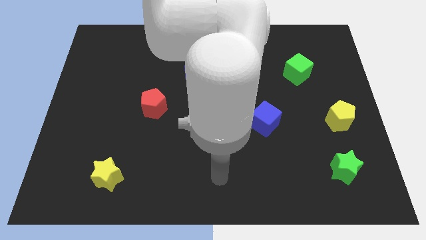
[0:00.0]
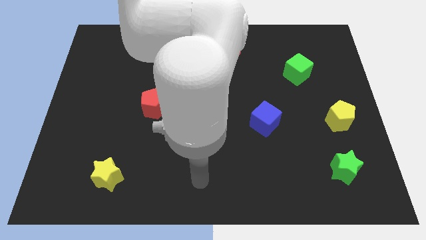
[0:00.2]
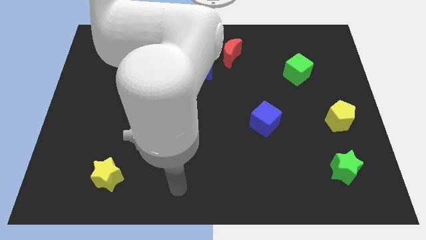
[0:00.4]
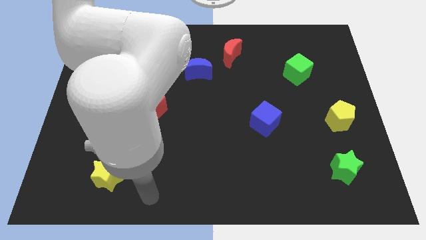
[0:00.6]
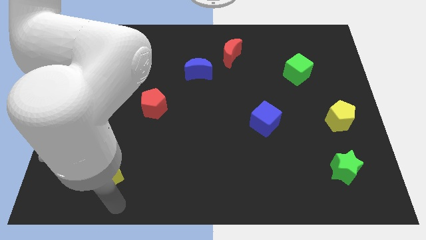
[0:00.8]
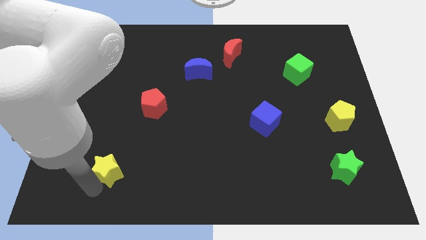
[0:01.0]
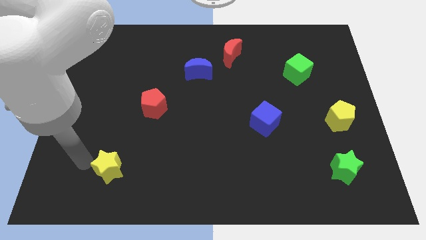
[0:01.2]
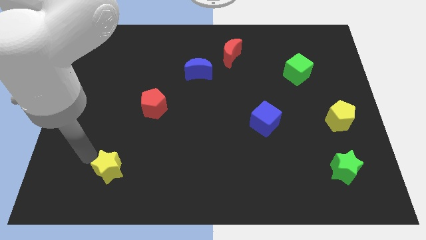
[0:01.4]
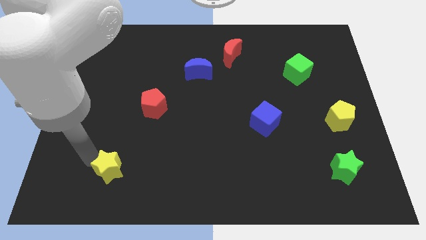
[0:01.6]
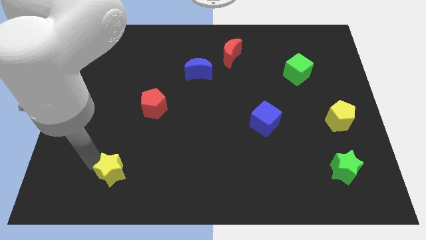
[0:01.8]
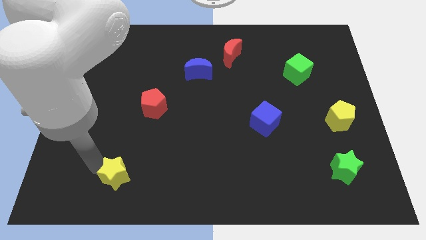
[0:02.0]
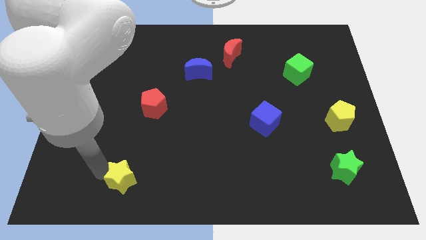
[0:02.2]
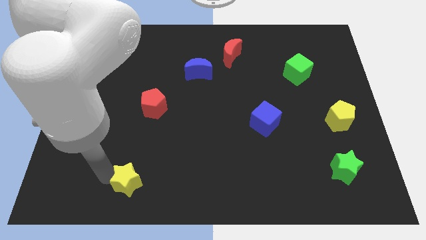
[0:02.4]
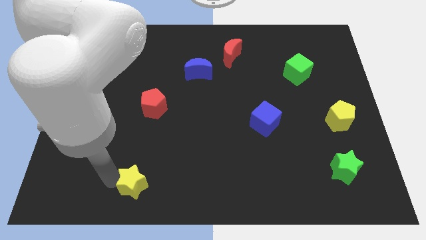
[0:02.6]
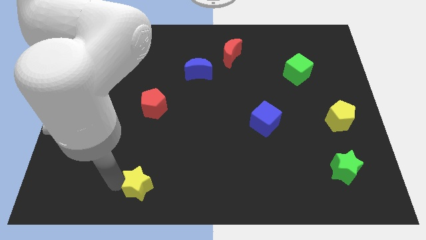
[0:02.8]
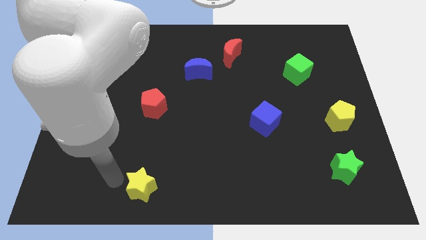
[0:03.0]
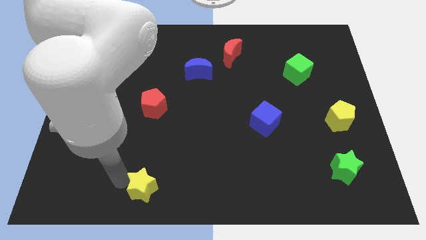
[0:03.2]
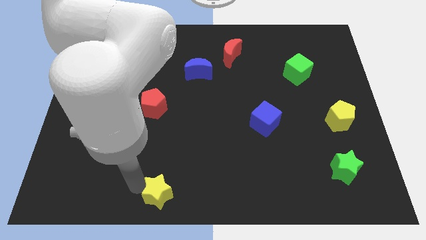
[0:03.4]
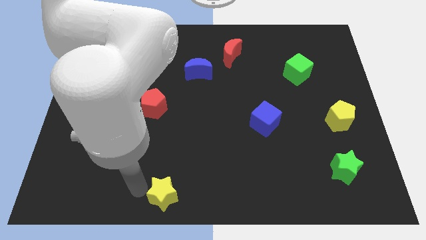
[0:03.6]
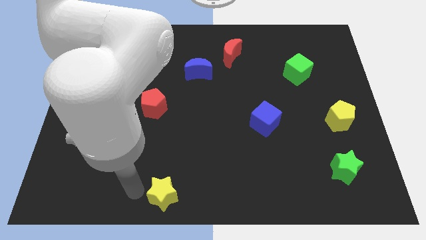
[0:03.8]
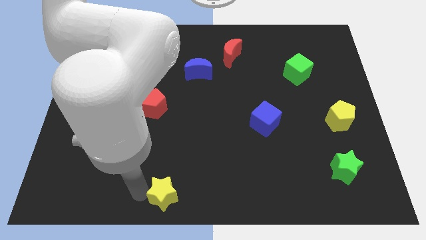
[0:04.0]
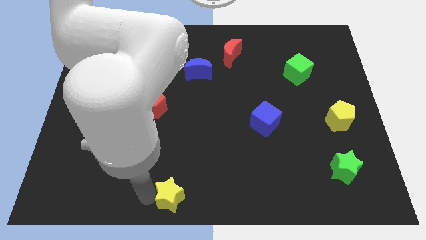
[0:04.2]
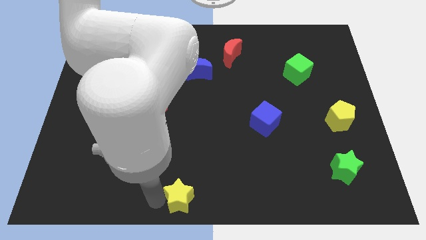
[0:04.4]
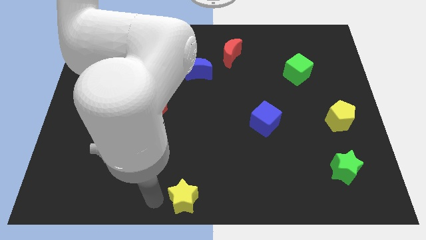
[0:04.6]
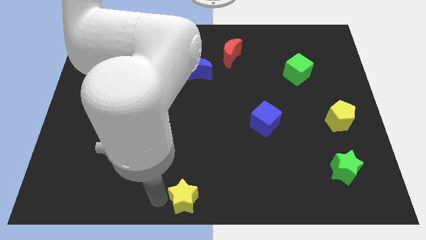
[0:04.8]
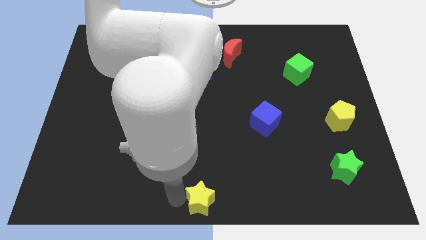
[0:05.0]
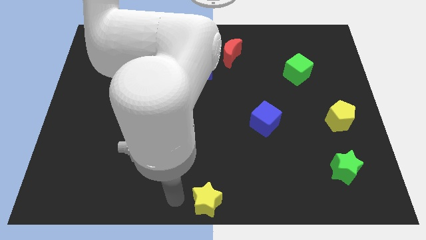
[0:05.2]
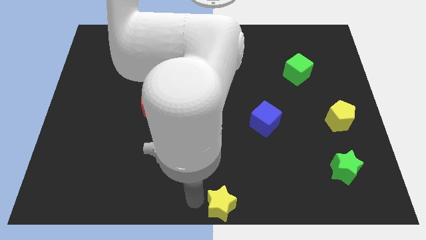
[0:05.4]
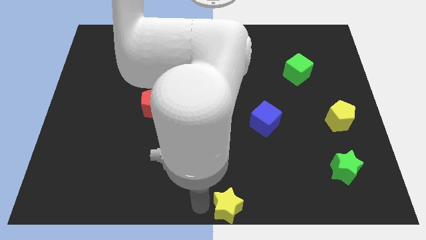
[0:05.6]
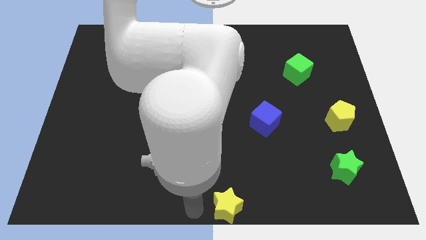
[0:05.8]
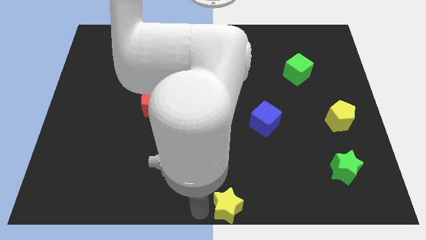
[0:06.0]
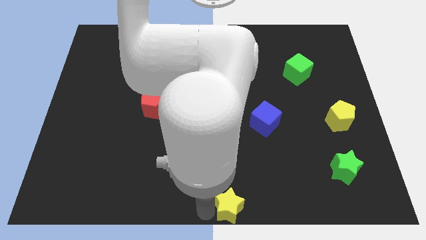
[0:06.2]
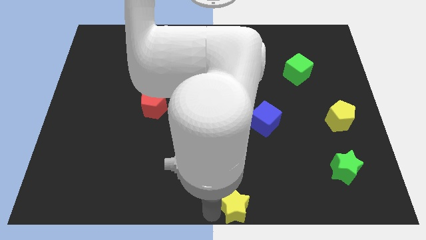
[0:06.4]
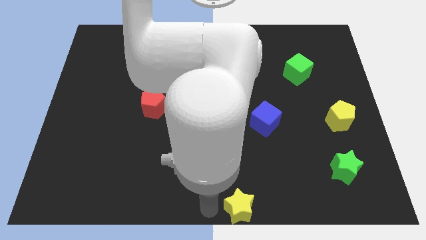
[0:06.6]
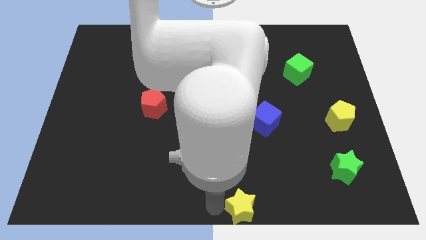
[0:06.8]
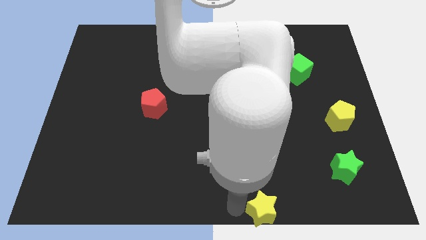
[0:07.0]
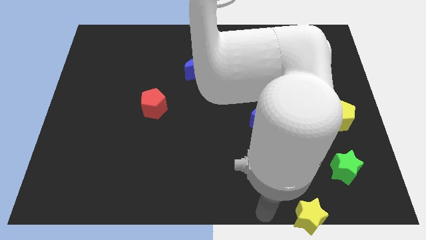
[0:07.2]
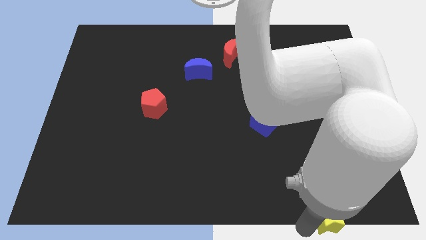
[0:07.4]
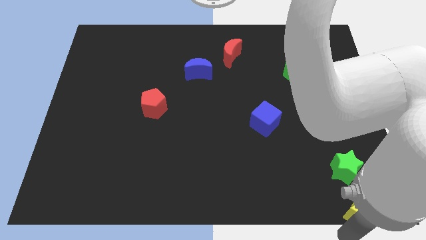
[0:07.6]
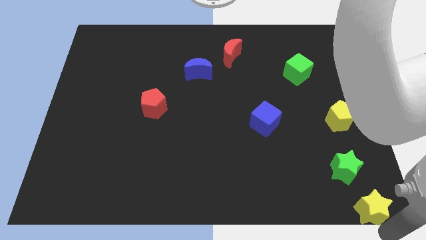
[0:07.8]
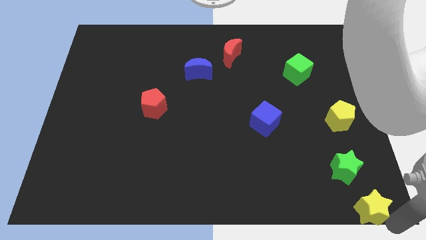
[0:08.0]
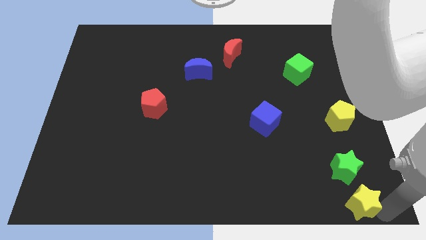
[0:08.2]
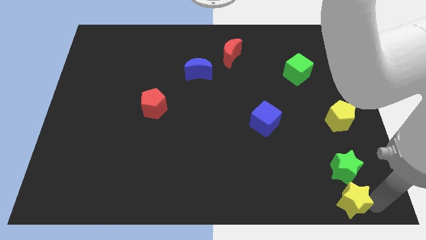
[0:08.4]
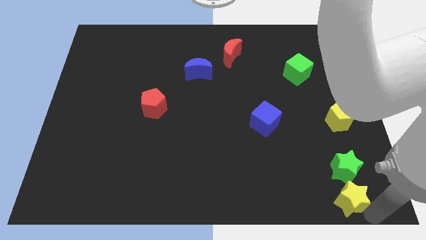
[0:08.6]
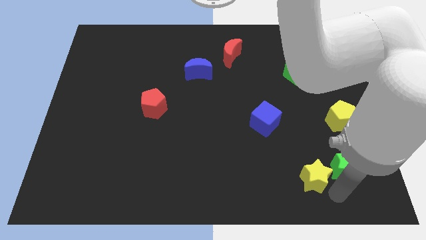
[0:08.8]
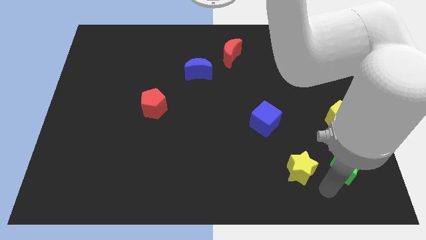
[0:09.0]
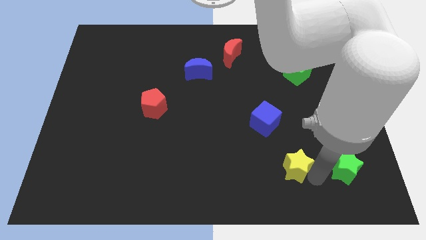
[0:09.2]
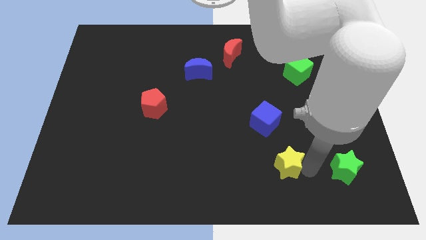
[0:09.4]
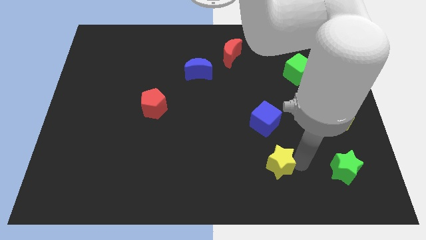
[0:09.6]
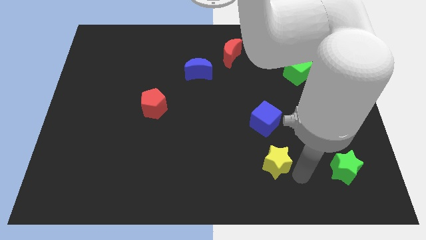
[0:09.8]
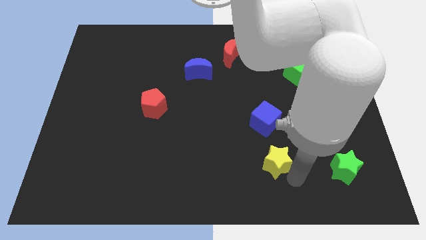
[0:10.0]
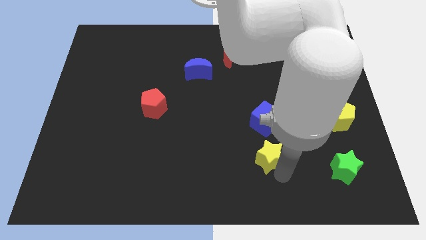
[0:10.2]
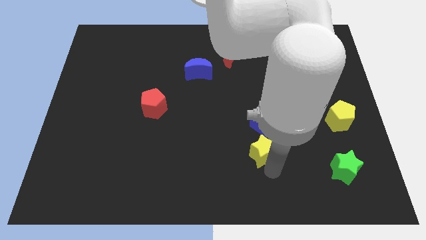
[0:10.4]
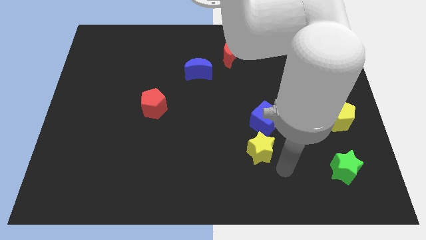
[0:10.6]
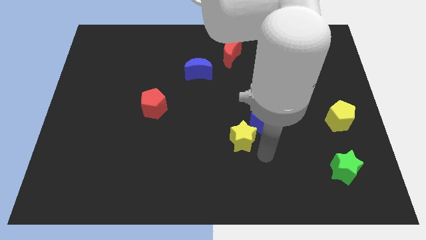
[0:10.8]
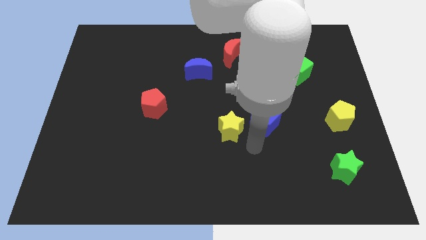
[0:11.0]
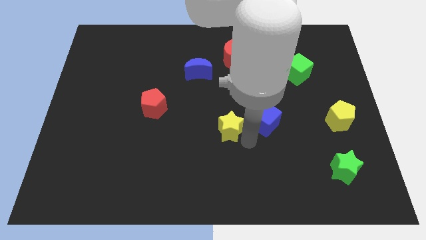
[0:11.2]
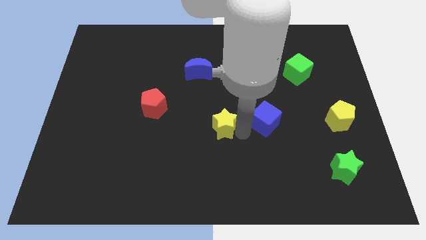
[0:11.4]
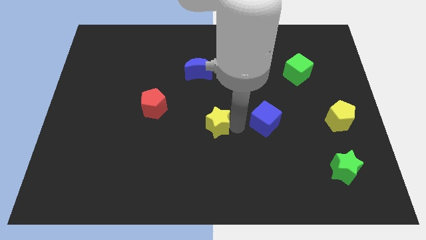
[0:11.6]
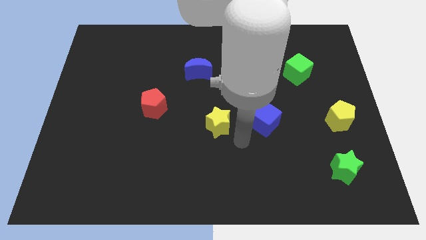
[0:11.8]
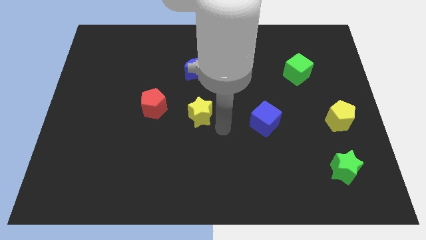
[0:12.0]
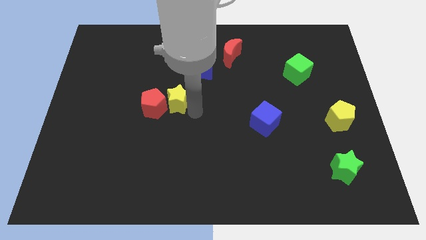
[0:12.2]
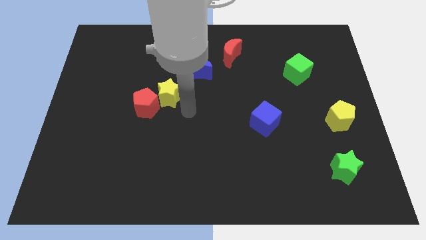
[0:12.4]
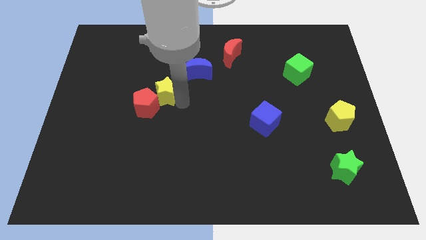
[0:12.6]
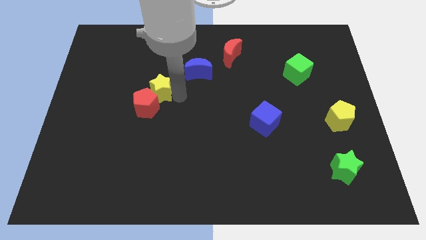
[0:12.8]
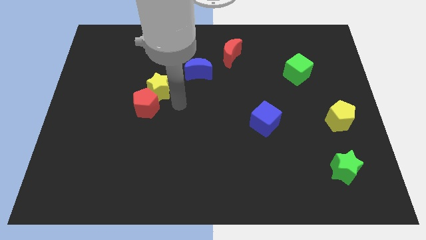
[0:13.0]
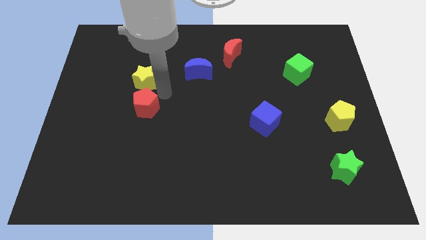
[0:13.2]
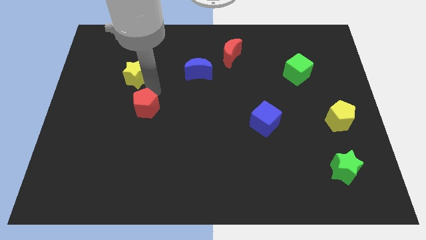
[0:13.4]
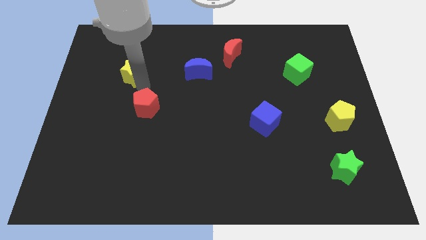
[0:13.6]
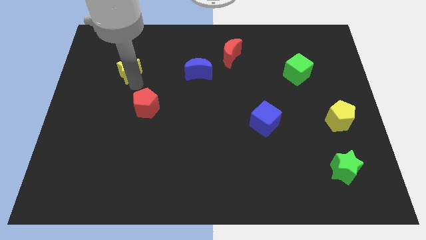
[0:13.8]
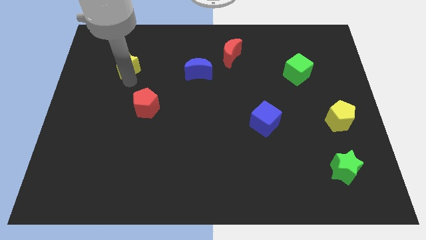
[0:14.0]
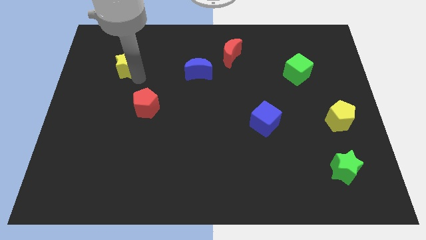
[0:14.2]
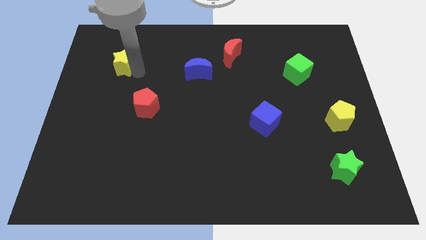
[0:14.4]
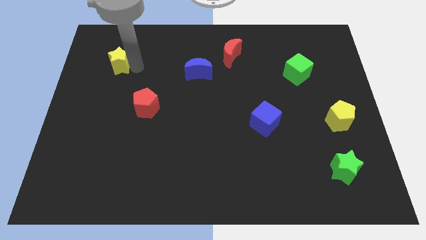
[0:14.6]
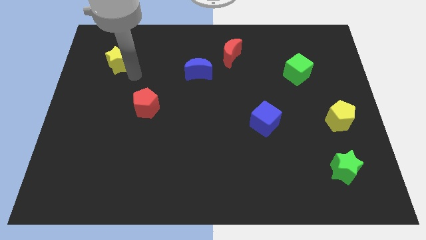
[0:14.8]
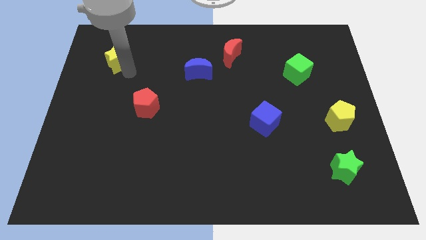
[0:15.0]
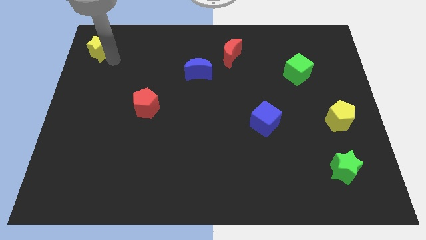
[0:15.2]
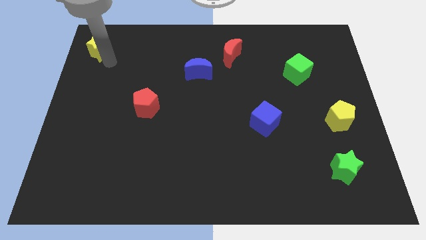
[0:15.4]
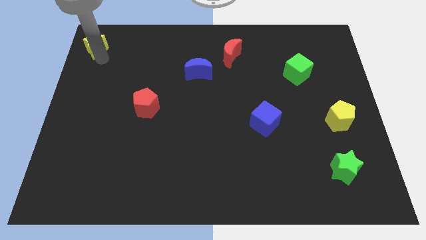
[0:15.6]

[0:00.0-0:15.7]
slide the yellow star to the top left
